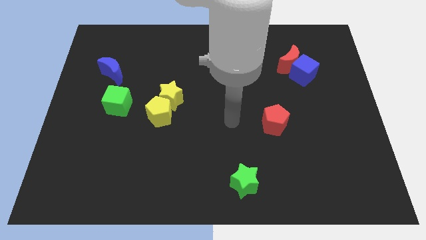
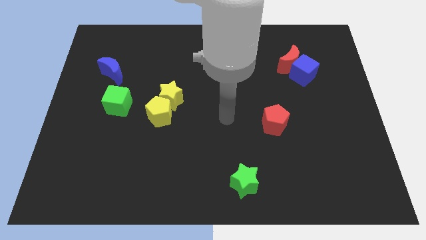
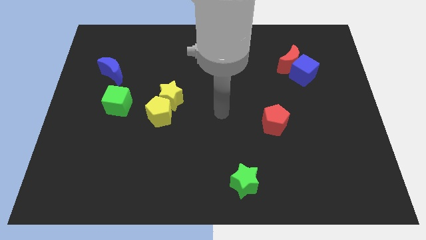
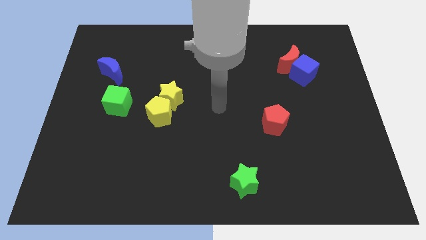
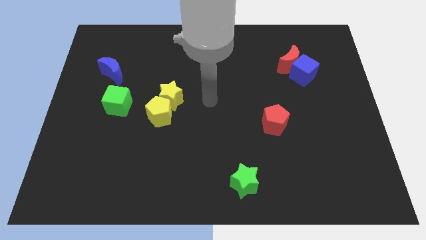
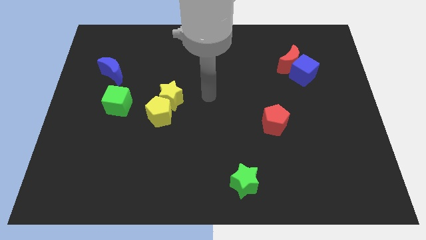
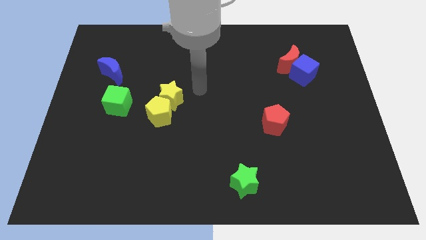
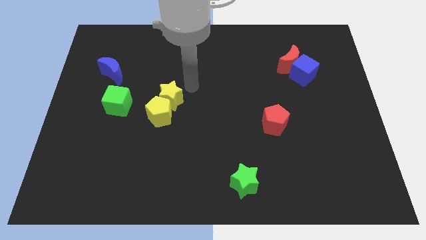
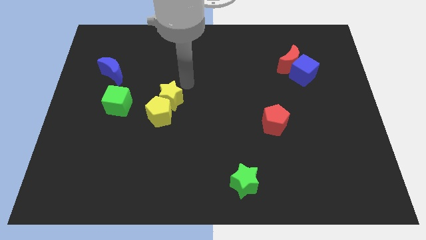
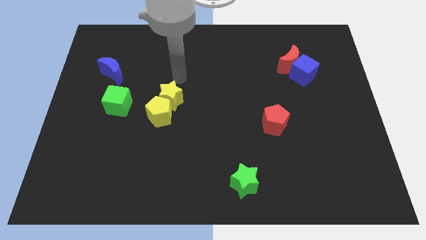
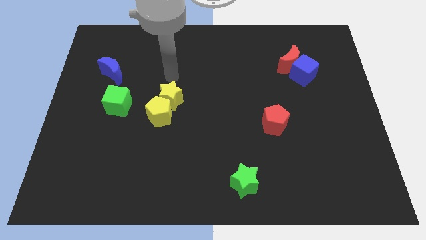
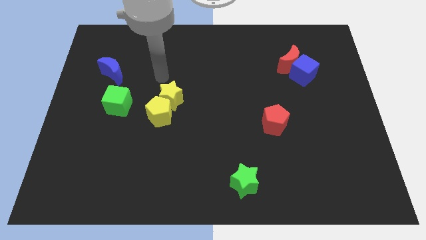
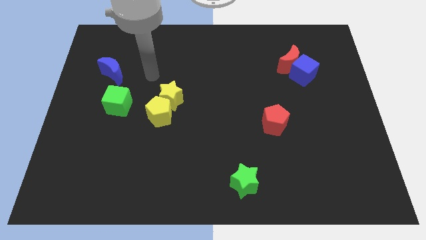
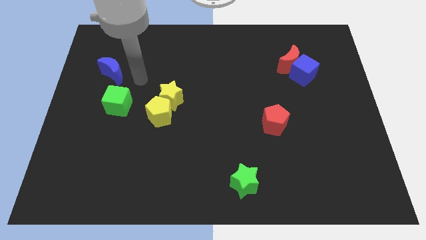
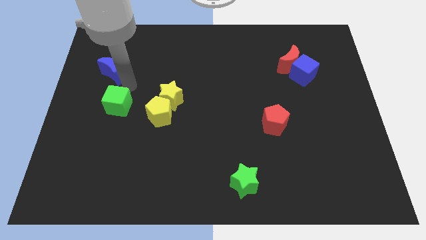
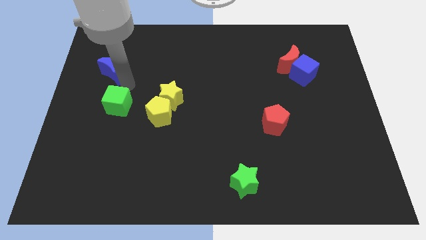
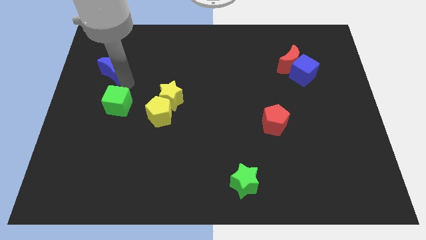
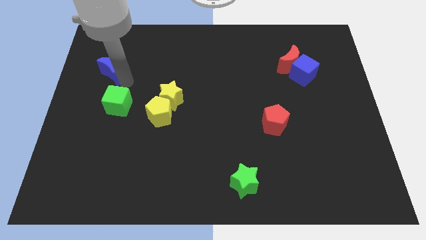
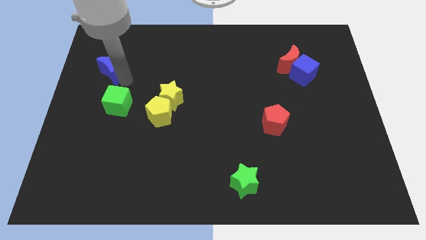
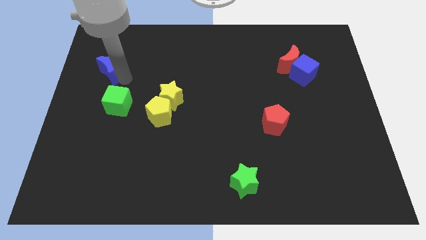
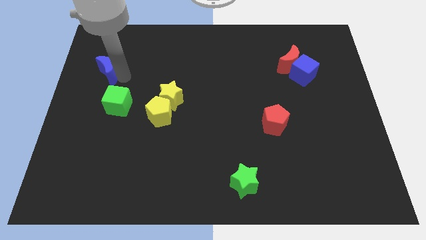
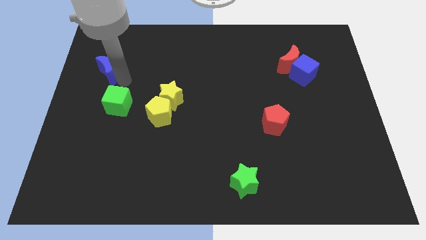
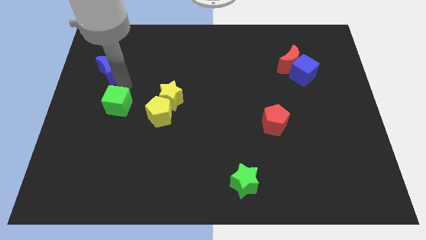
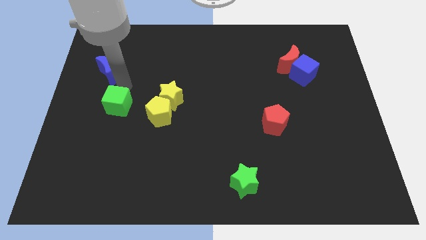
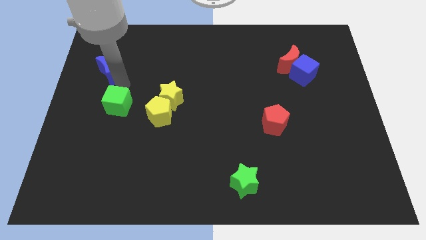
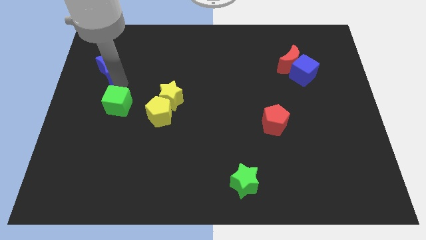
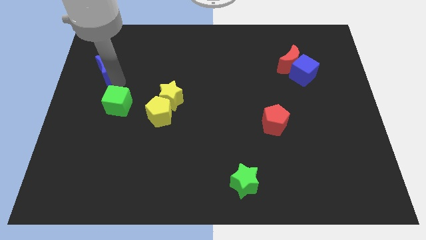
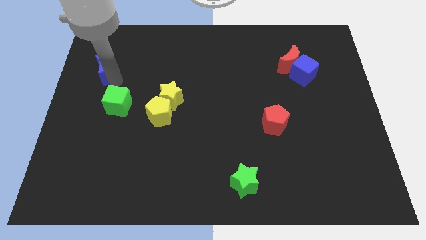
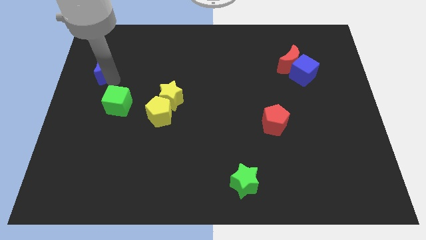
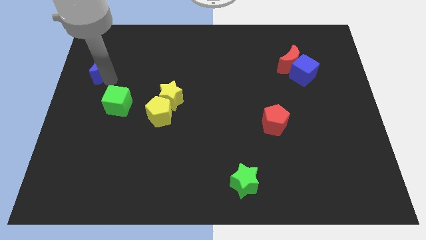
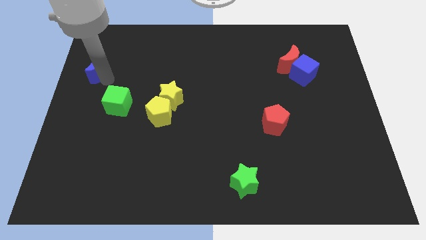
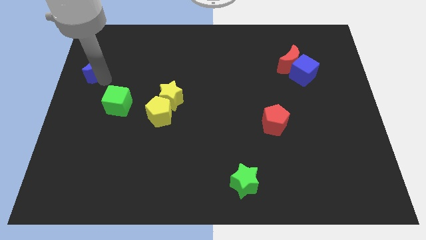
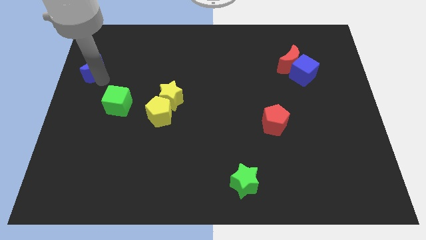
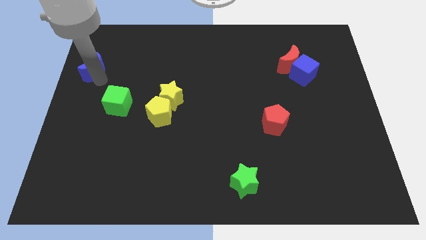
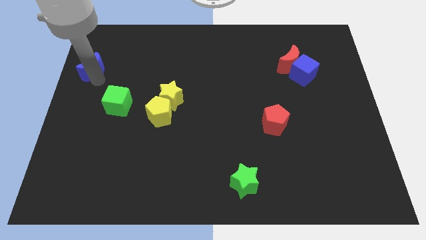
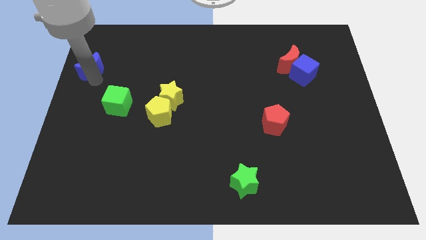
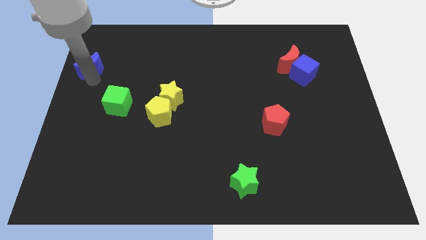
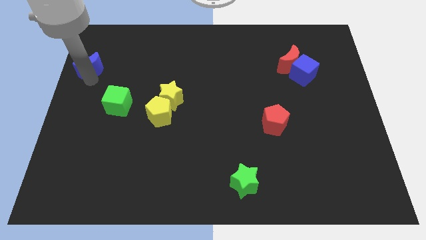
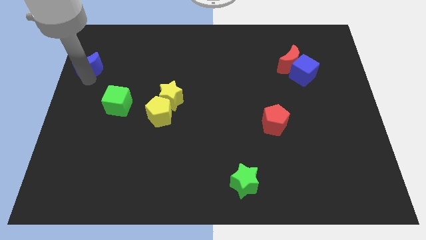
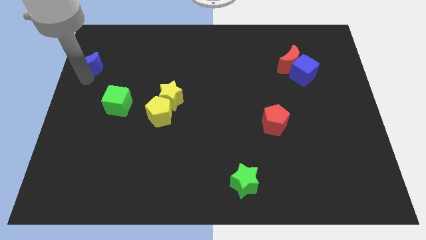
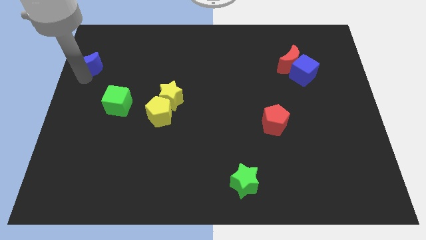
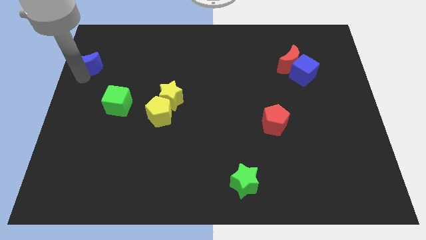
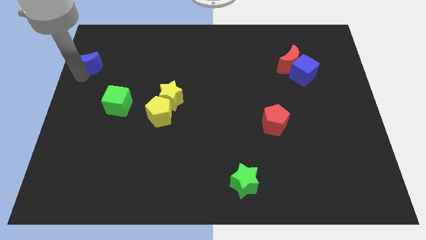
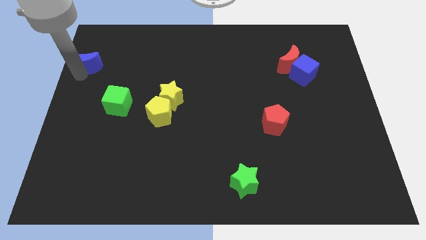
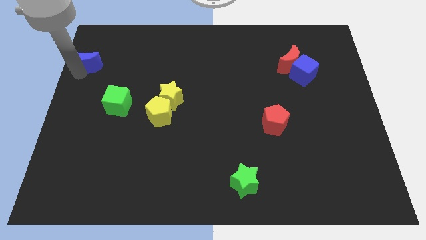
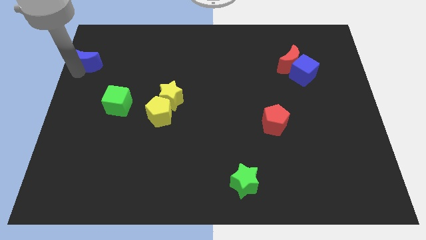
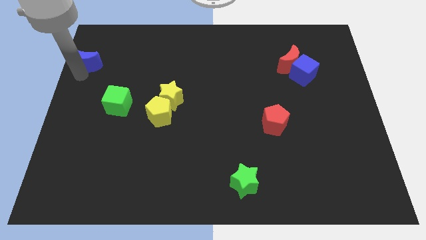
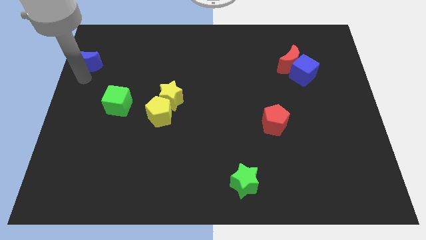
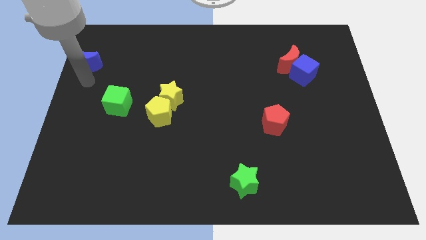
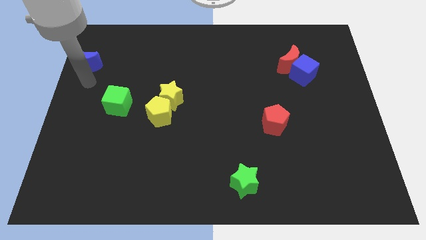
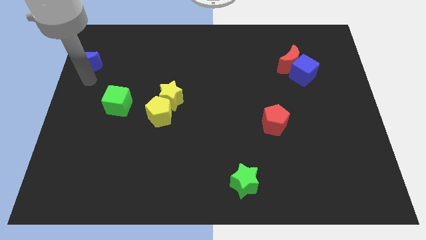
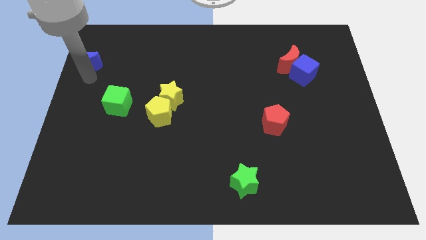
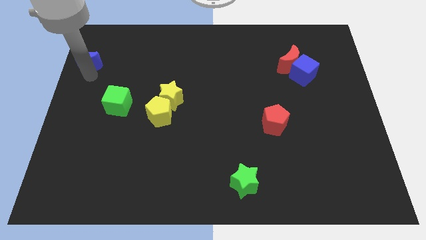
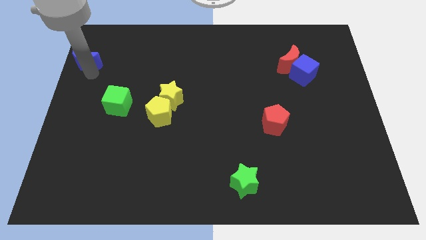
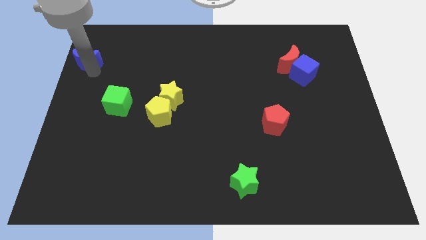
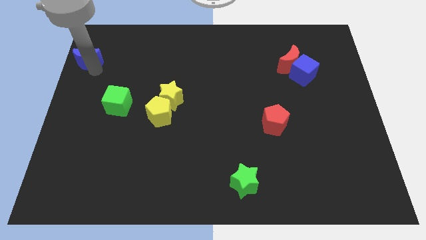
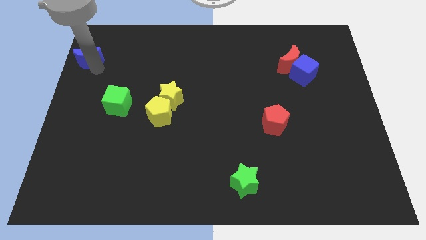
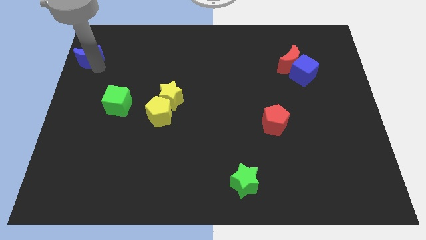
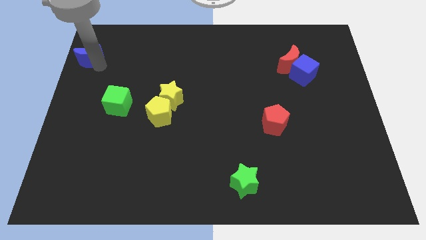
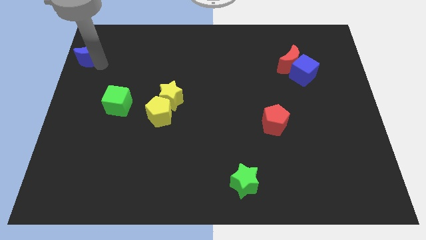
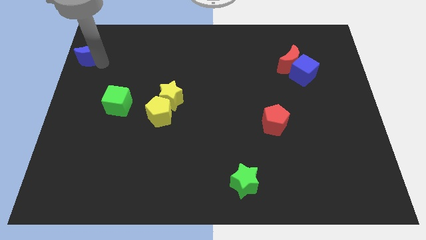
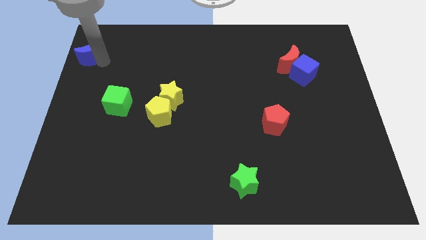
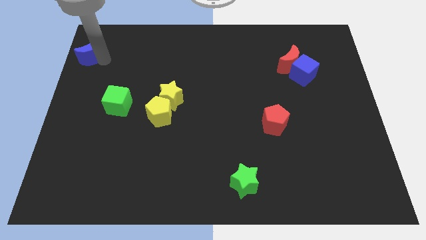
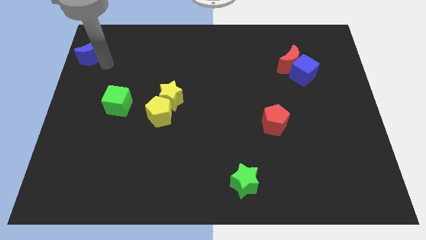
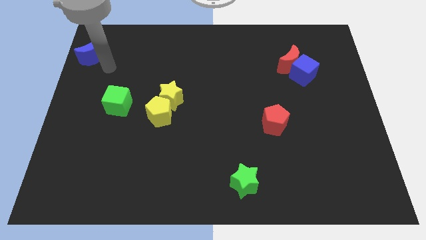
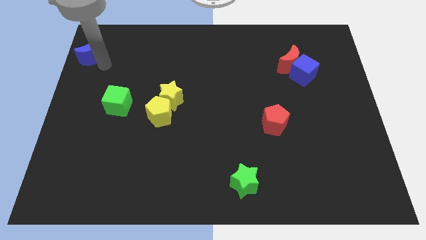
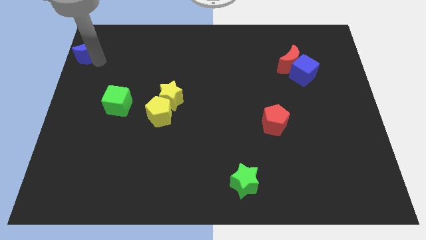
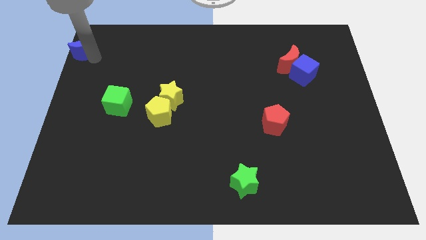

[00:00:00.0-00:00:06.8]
put the blue moon to the upper left corner
